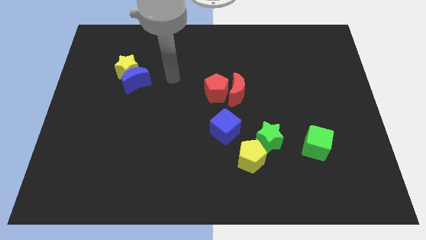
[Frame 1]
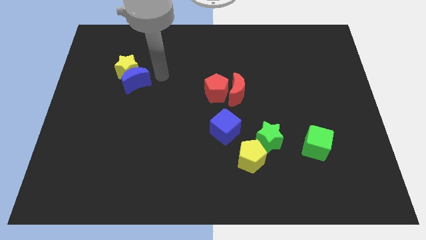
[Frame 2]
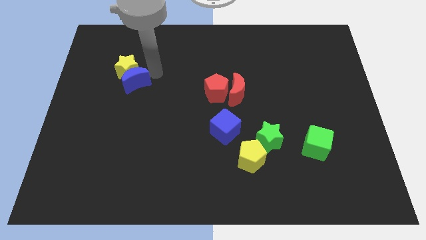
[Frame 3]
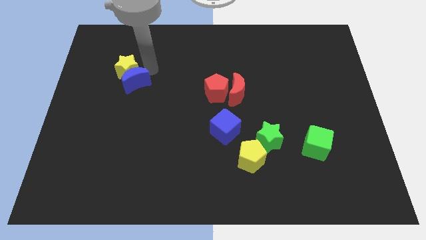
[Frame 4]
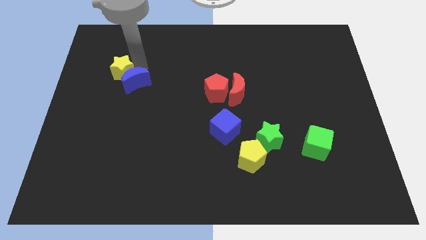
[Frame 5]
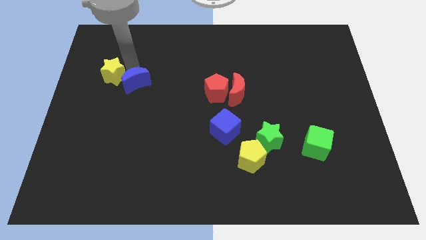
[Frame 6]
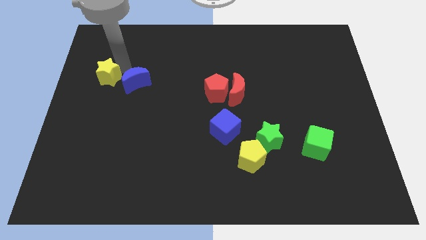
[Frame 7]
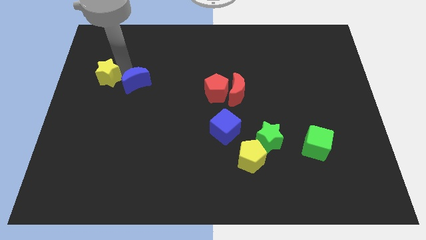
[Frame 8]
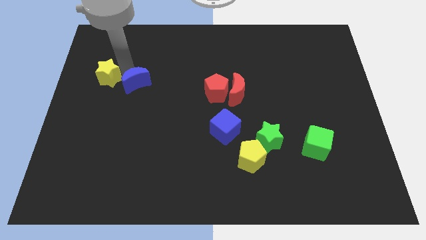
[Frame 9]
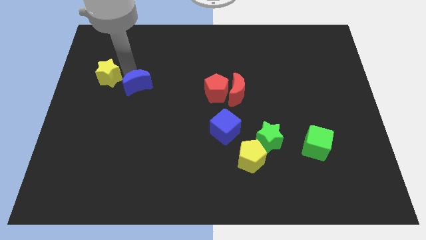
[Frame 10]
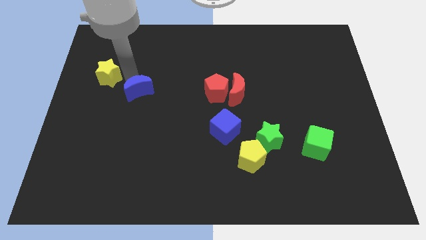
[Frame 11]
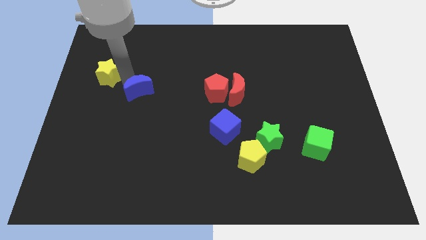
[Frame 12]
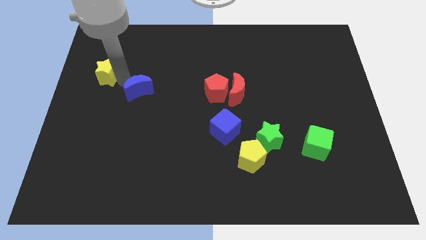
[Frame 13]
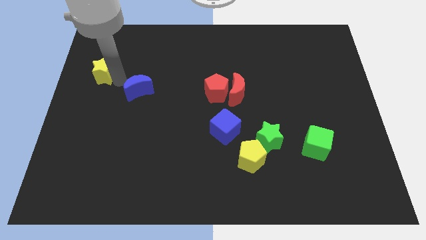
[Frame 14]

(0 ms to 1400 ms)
separate the blue moon from the yellow star

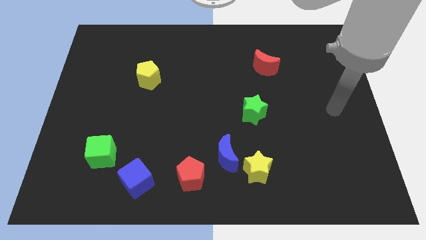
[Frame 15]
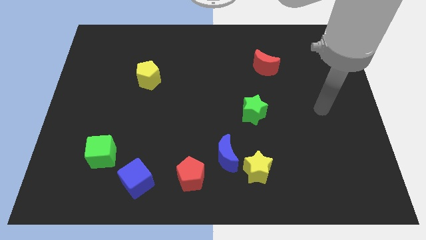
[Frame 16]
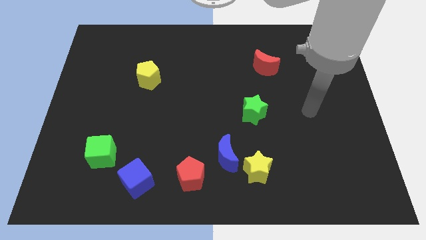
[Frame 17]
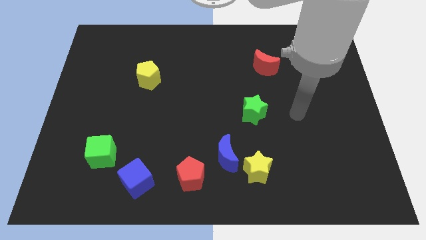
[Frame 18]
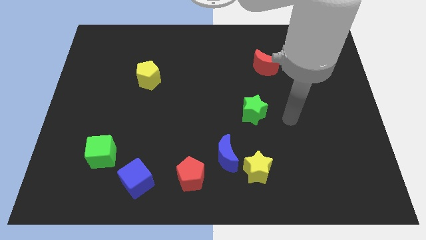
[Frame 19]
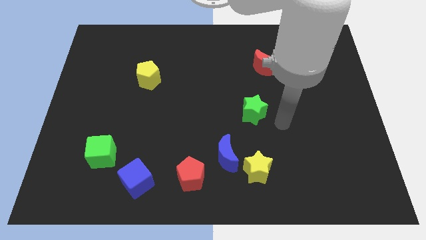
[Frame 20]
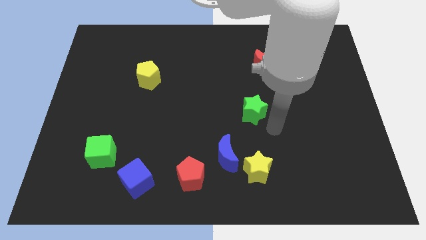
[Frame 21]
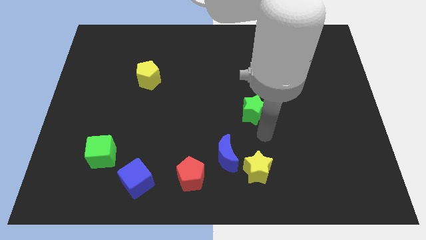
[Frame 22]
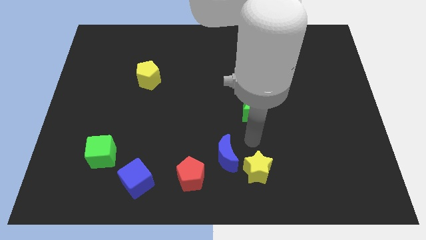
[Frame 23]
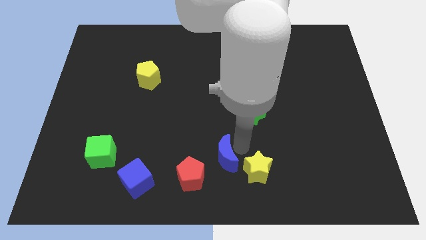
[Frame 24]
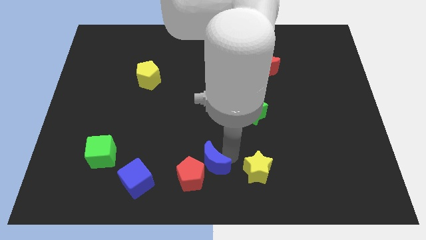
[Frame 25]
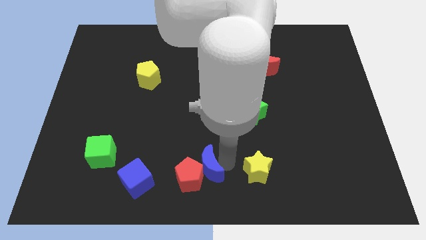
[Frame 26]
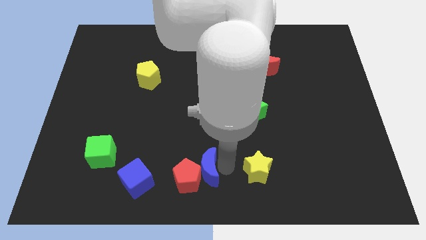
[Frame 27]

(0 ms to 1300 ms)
move the yellow star away from the blue moon

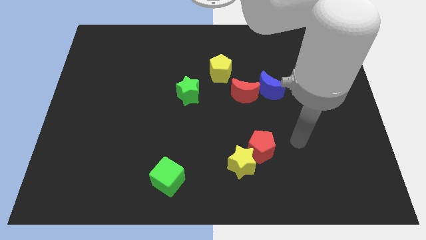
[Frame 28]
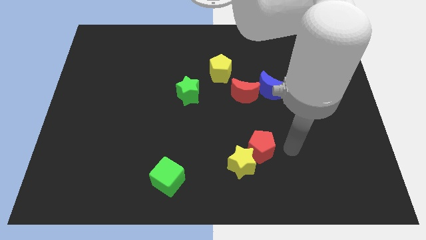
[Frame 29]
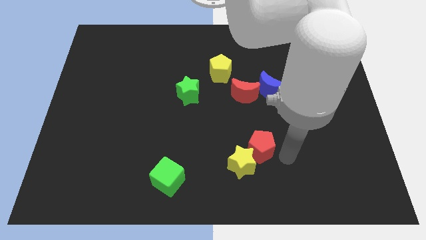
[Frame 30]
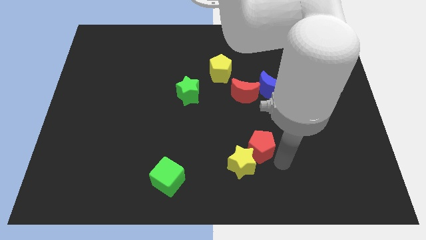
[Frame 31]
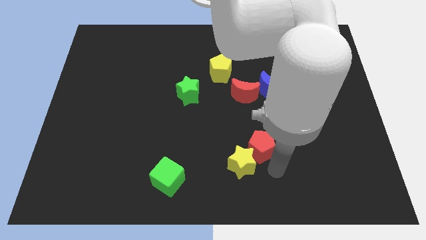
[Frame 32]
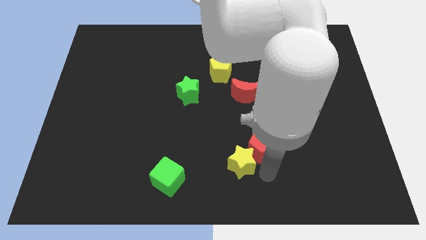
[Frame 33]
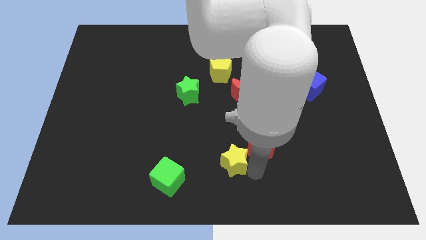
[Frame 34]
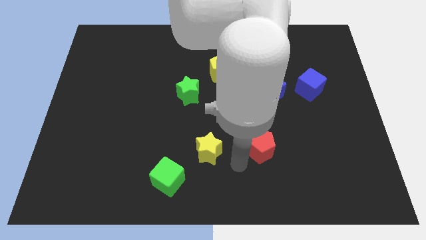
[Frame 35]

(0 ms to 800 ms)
separate the red pentagon from the yellow star

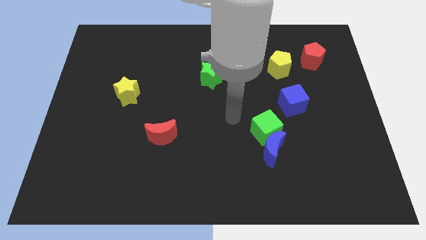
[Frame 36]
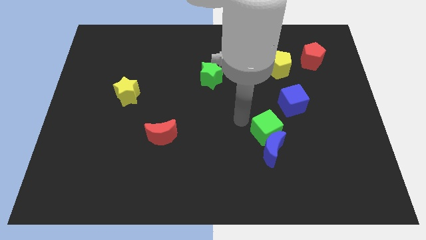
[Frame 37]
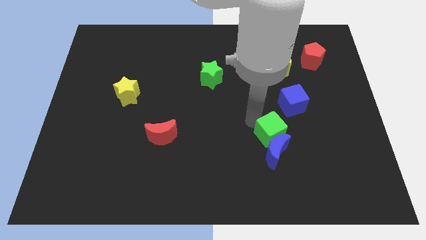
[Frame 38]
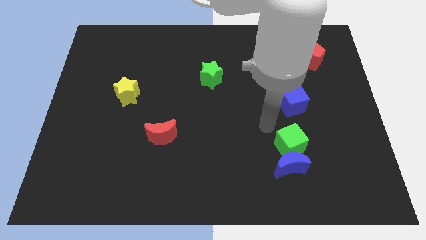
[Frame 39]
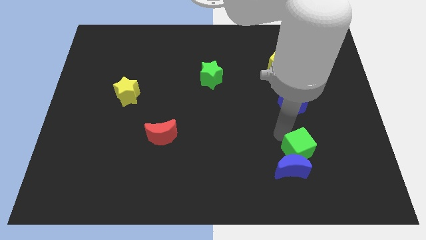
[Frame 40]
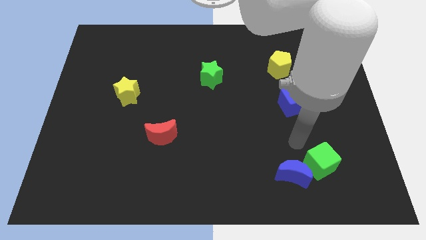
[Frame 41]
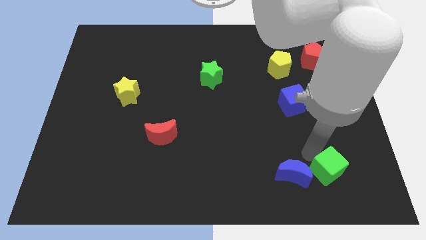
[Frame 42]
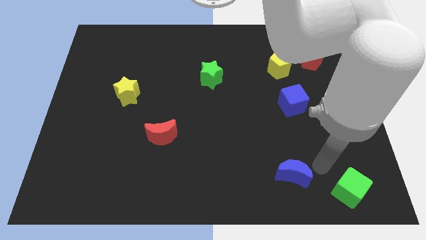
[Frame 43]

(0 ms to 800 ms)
pull the blue moon apart from the green cube

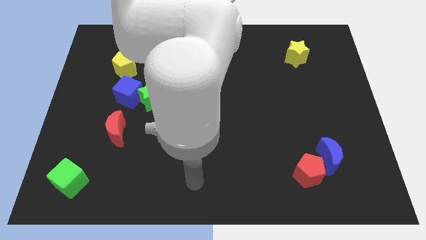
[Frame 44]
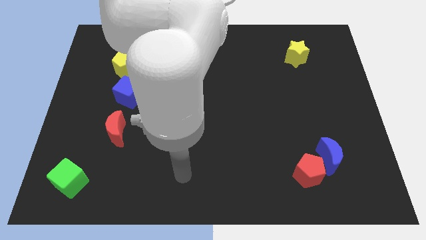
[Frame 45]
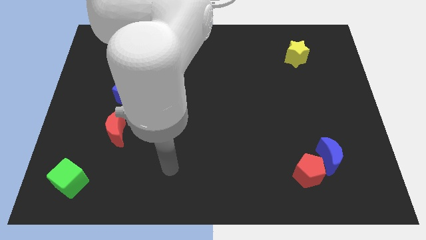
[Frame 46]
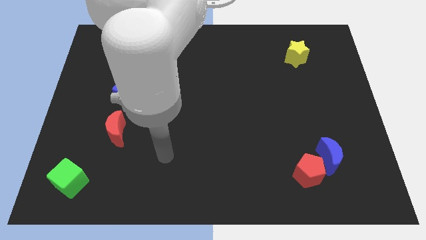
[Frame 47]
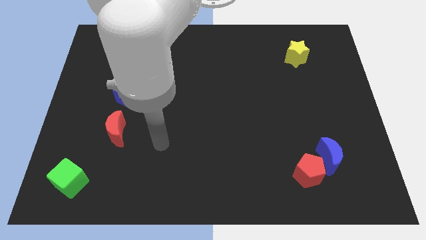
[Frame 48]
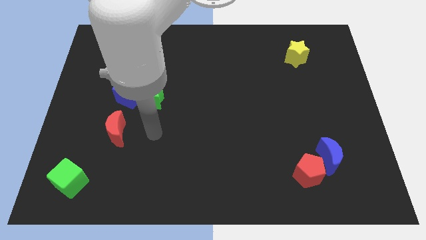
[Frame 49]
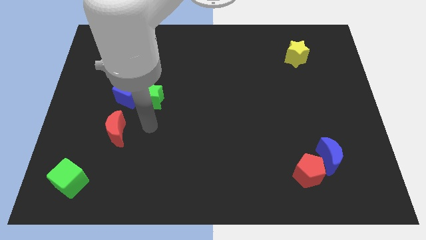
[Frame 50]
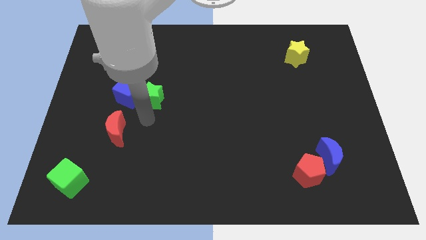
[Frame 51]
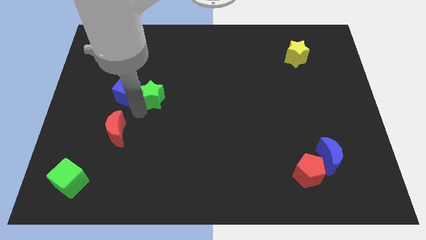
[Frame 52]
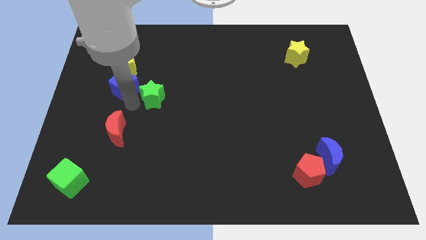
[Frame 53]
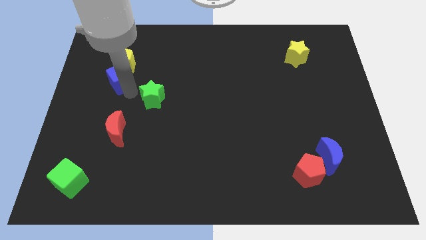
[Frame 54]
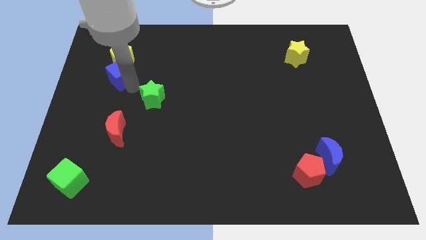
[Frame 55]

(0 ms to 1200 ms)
pull the green star apart from the blue cube

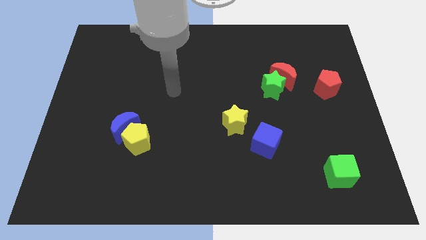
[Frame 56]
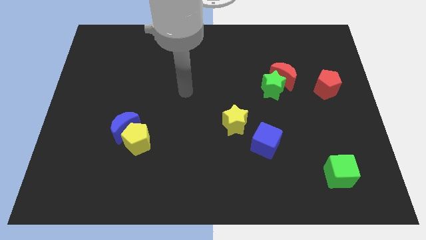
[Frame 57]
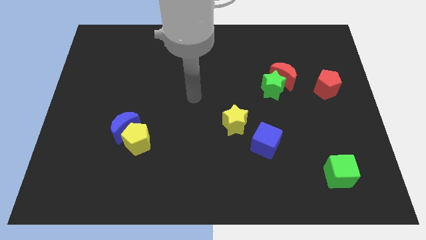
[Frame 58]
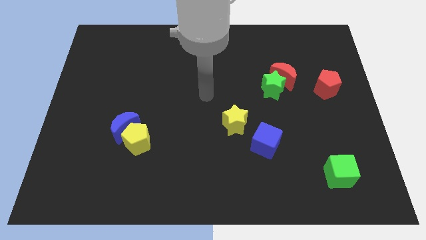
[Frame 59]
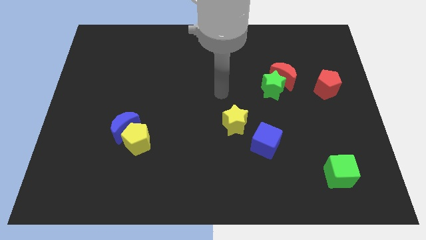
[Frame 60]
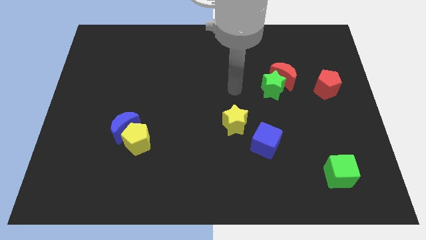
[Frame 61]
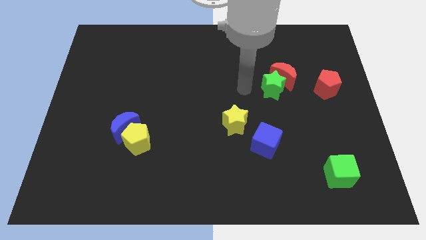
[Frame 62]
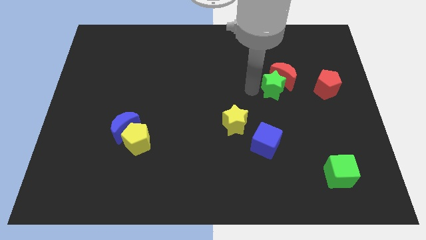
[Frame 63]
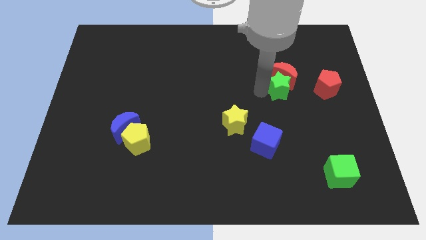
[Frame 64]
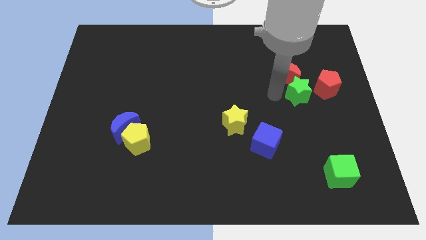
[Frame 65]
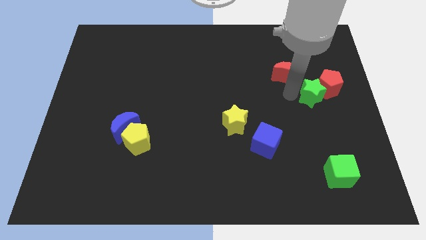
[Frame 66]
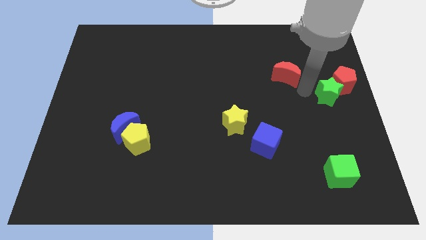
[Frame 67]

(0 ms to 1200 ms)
separate the red moon from the green star

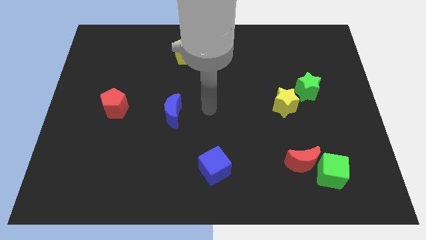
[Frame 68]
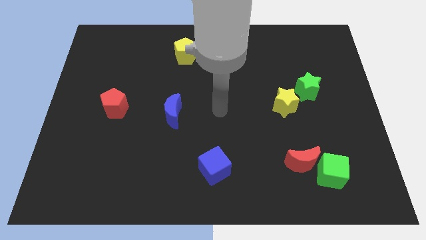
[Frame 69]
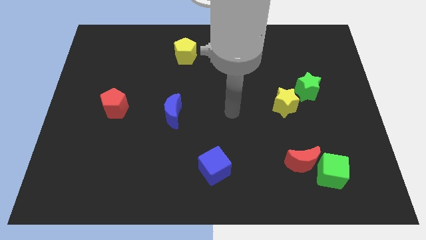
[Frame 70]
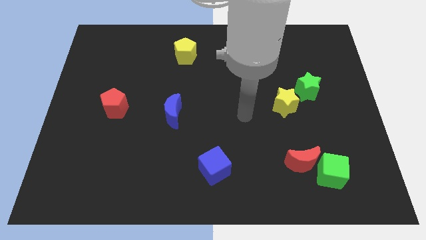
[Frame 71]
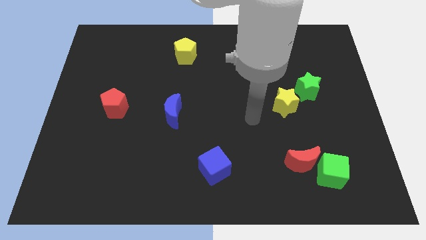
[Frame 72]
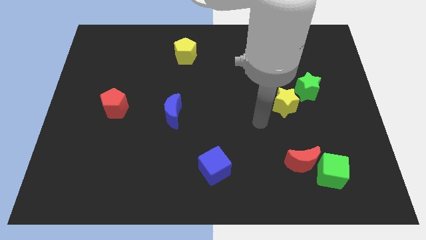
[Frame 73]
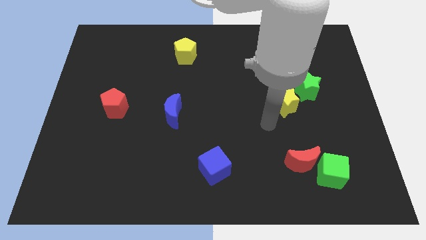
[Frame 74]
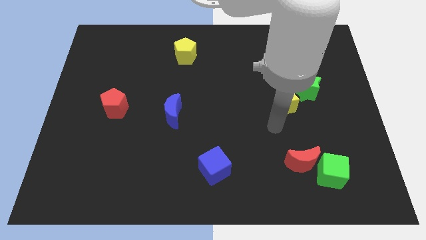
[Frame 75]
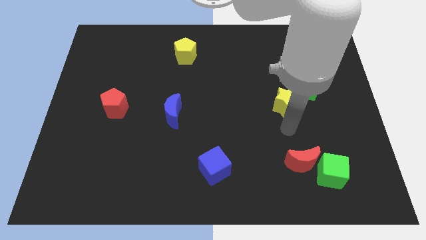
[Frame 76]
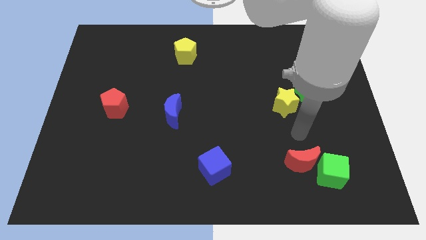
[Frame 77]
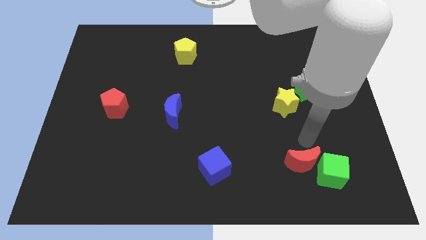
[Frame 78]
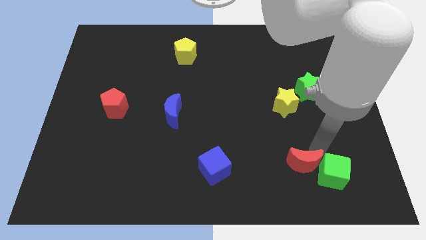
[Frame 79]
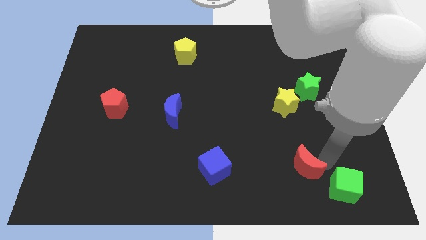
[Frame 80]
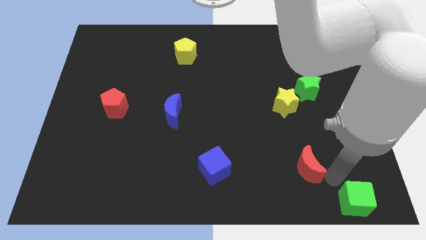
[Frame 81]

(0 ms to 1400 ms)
separate the red moon from the green cube

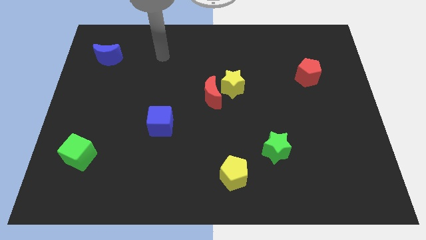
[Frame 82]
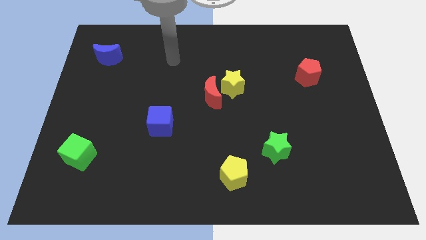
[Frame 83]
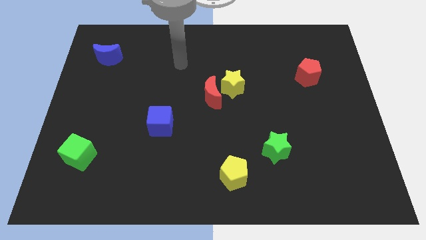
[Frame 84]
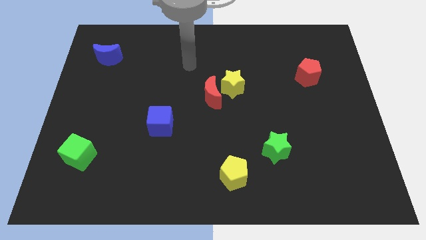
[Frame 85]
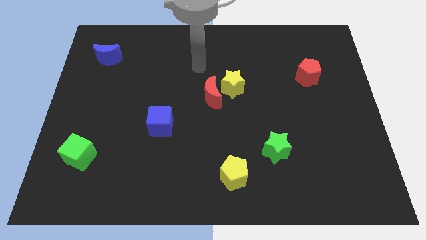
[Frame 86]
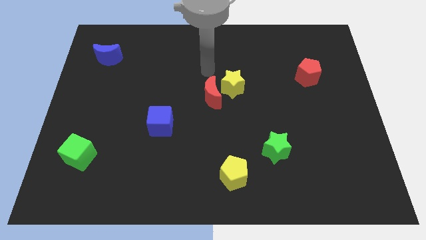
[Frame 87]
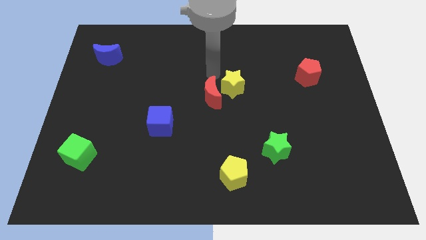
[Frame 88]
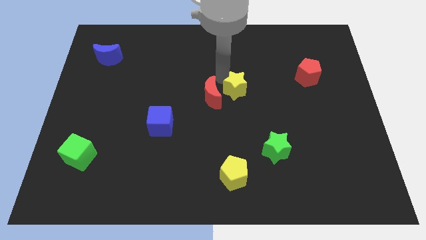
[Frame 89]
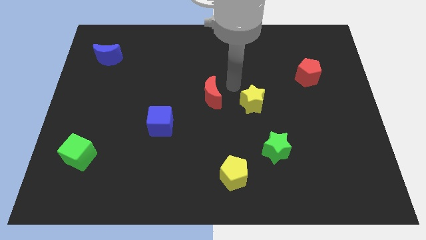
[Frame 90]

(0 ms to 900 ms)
pull the red moon apart from the yellow star

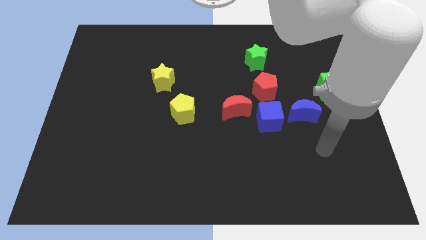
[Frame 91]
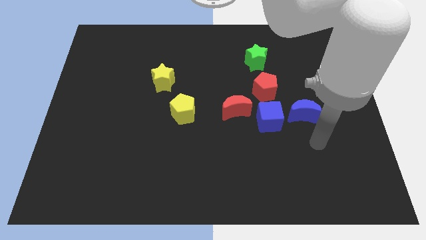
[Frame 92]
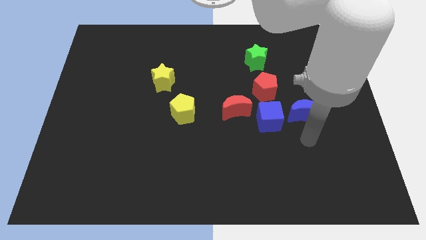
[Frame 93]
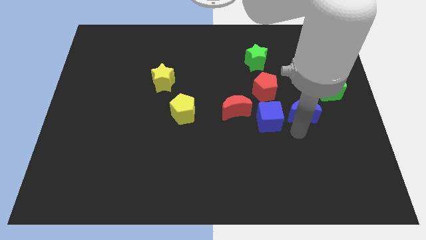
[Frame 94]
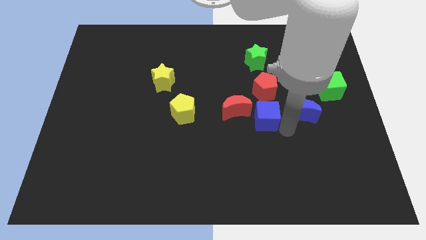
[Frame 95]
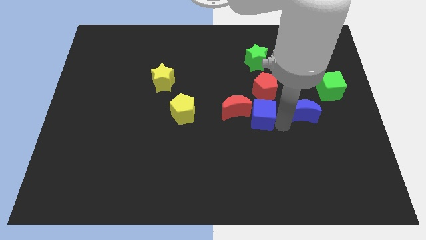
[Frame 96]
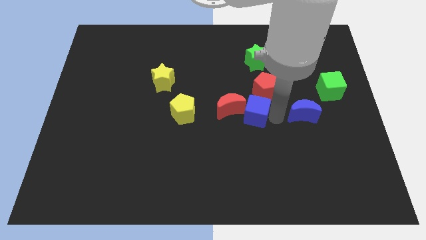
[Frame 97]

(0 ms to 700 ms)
separate the blue moon from the blue cube
